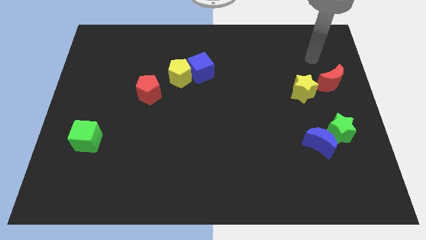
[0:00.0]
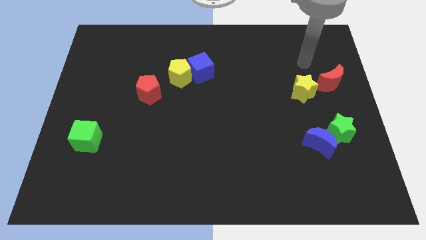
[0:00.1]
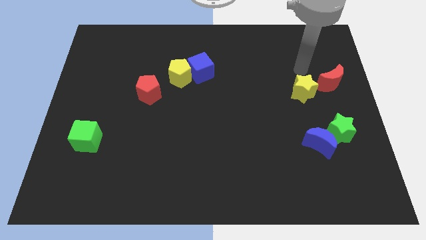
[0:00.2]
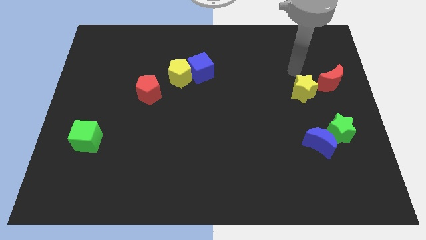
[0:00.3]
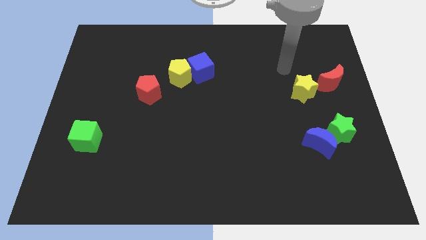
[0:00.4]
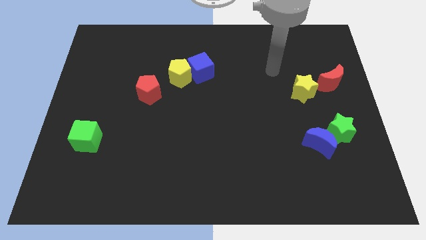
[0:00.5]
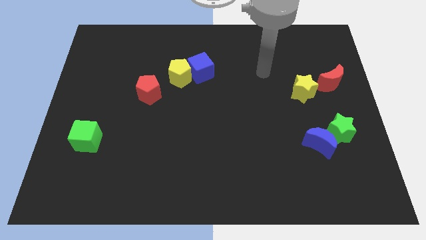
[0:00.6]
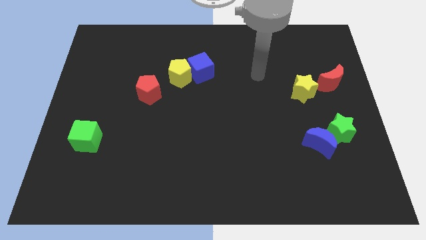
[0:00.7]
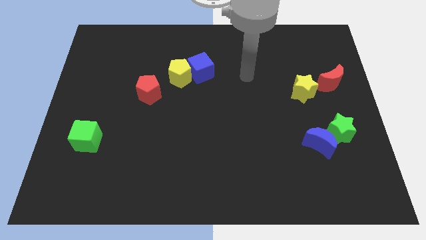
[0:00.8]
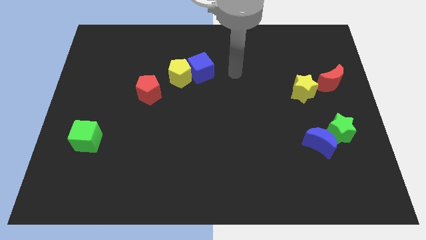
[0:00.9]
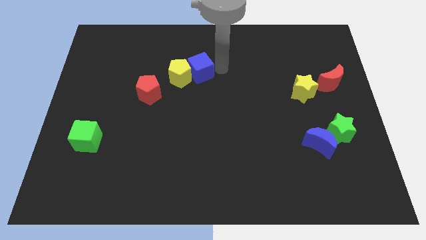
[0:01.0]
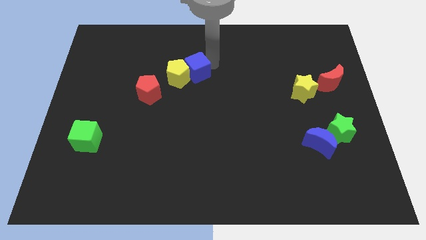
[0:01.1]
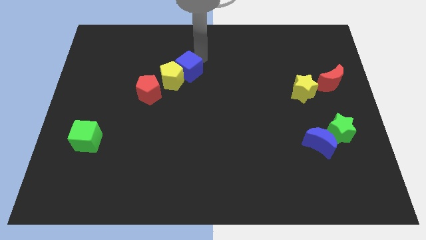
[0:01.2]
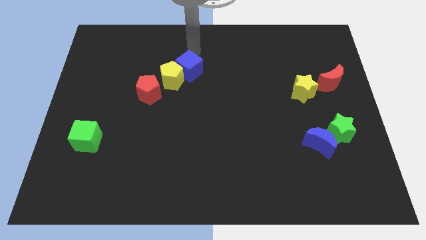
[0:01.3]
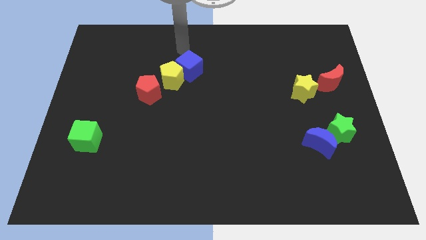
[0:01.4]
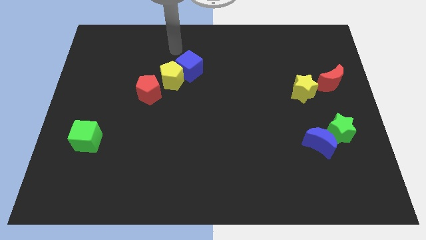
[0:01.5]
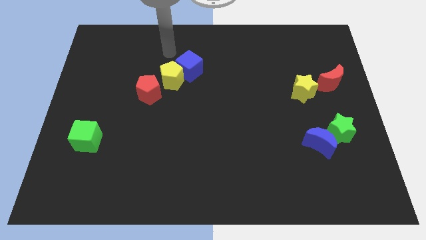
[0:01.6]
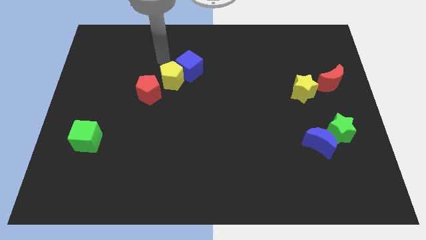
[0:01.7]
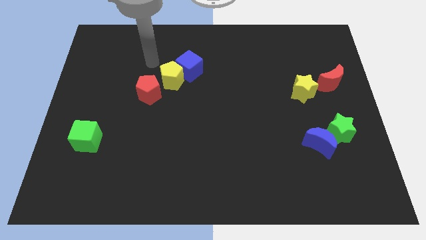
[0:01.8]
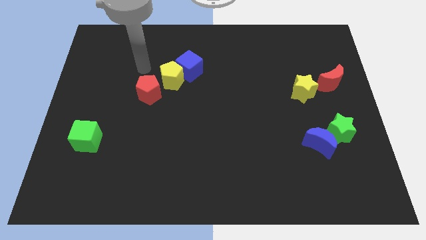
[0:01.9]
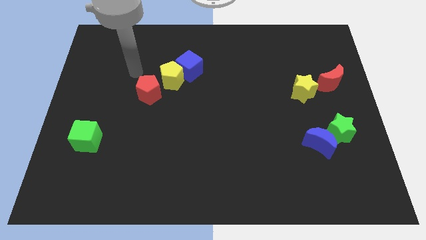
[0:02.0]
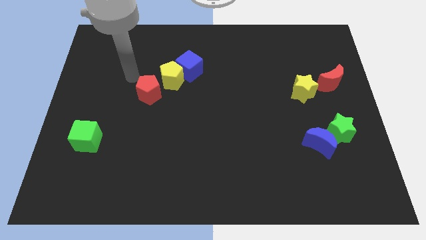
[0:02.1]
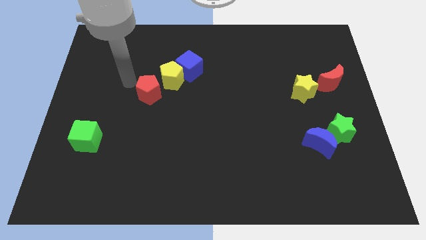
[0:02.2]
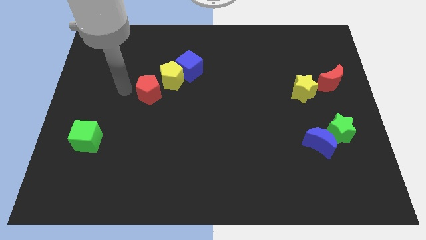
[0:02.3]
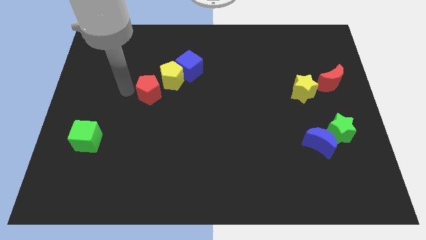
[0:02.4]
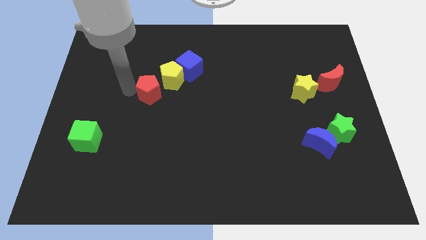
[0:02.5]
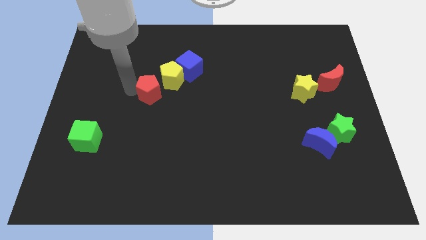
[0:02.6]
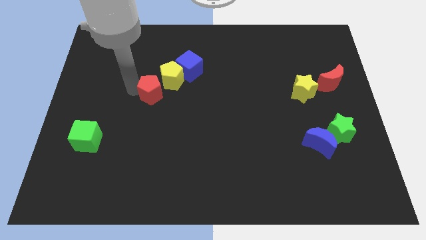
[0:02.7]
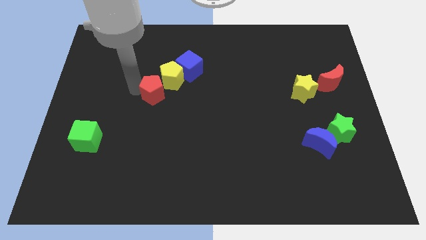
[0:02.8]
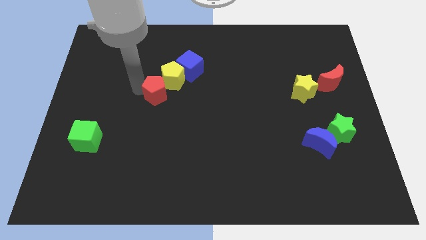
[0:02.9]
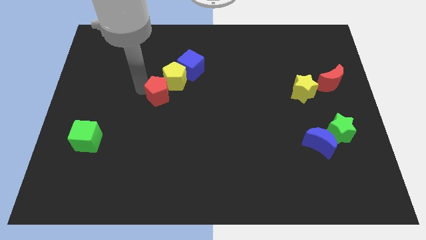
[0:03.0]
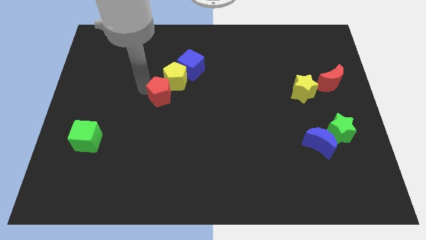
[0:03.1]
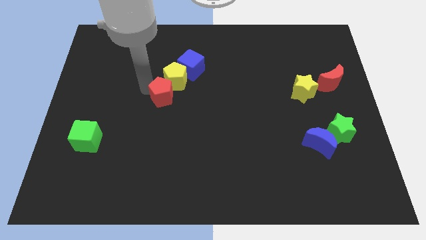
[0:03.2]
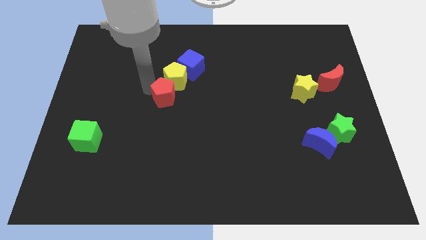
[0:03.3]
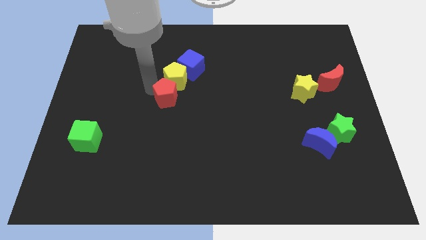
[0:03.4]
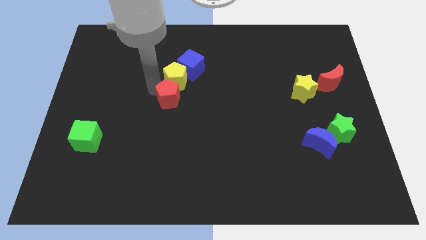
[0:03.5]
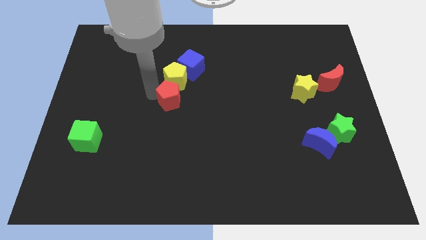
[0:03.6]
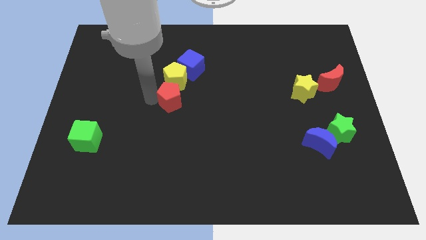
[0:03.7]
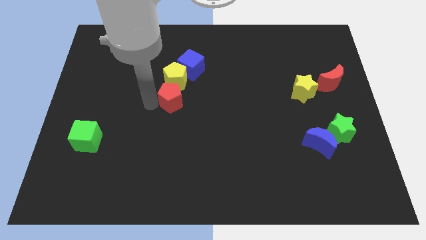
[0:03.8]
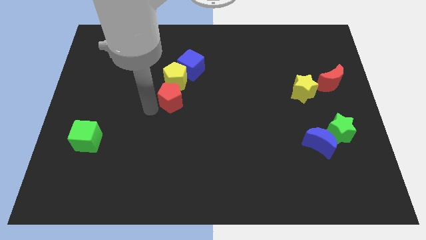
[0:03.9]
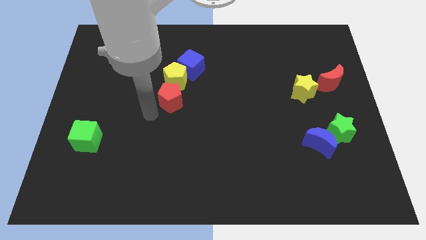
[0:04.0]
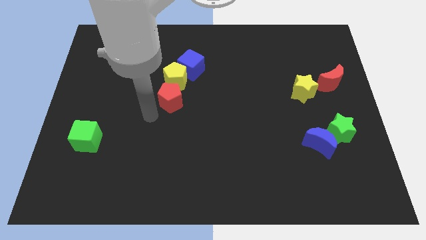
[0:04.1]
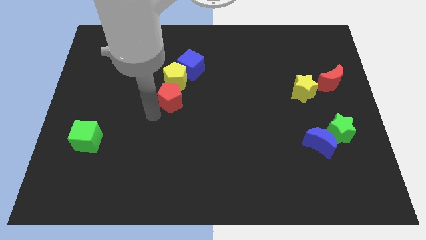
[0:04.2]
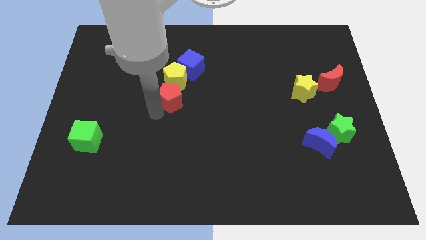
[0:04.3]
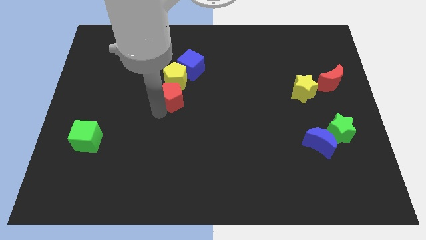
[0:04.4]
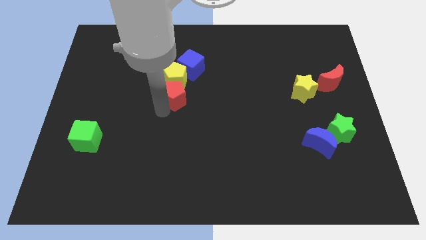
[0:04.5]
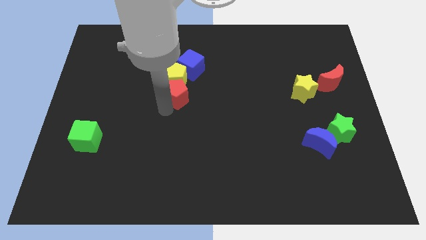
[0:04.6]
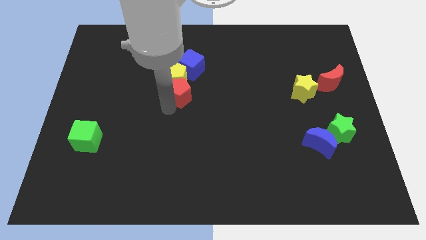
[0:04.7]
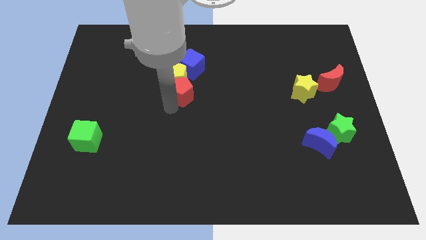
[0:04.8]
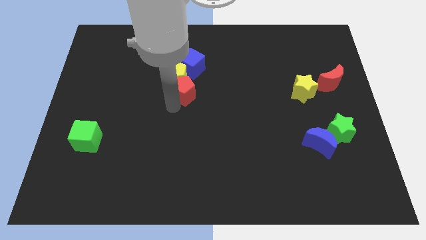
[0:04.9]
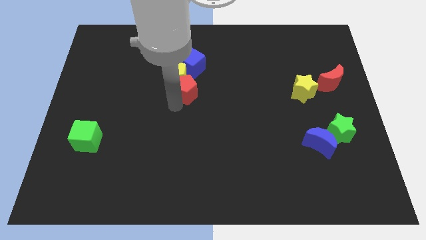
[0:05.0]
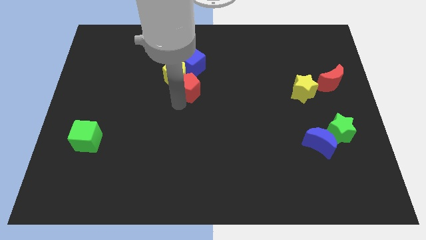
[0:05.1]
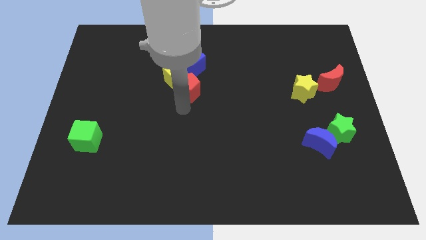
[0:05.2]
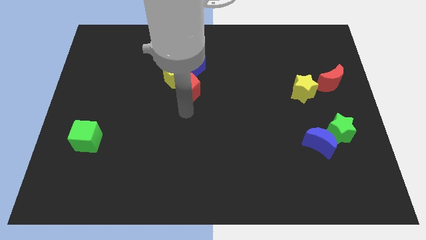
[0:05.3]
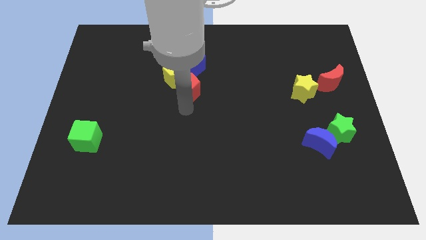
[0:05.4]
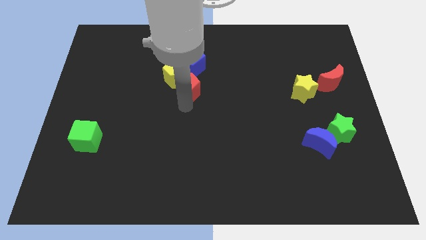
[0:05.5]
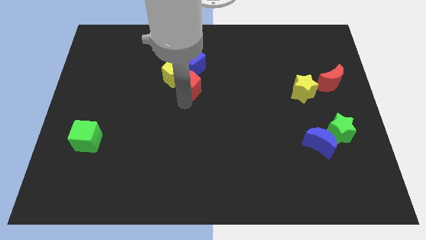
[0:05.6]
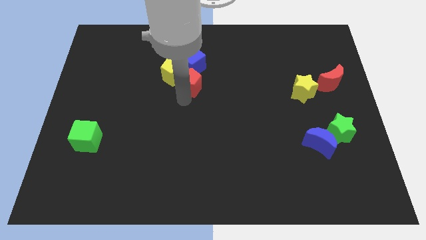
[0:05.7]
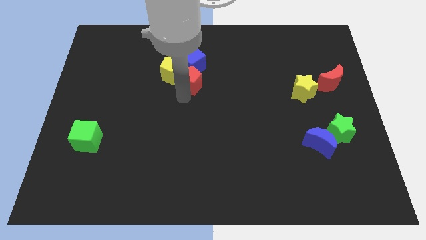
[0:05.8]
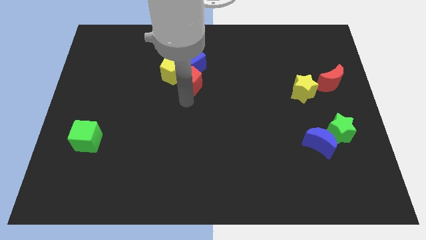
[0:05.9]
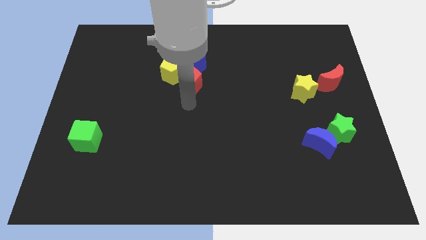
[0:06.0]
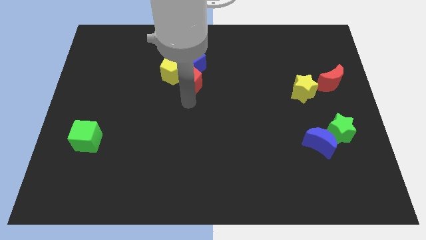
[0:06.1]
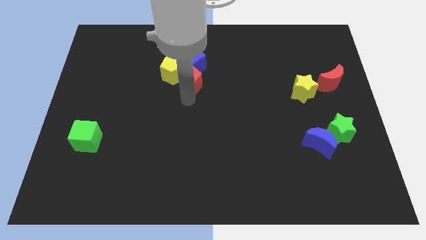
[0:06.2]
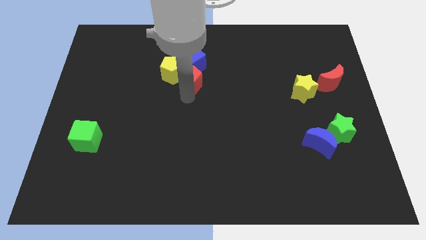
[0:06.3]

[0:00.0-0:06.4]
move the red pentagon to the blue cube
